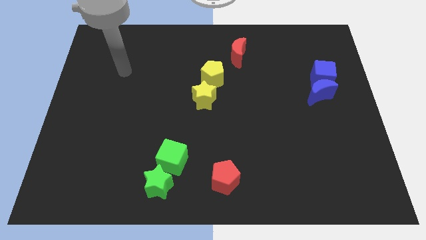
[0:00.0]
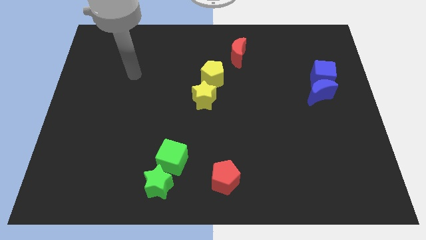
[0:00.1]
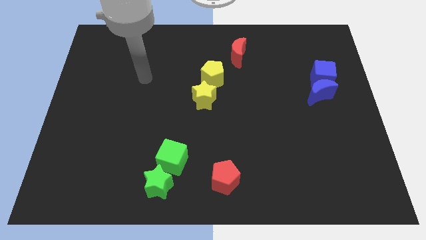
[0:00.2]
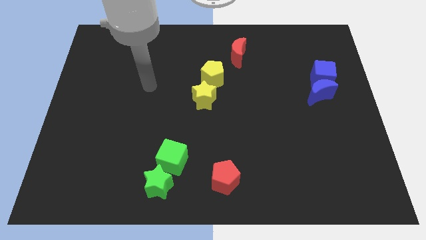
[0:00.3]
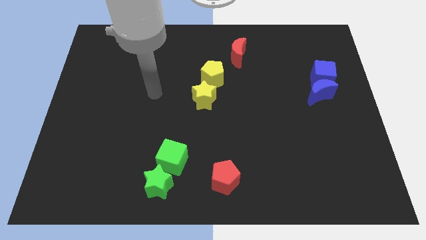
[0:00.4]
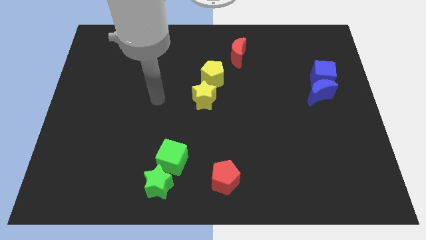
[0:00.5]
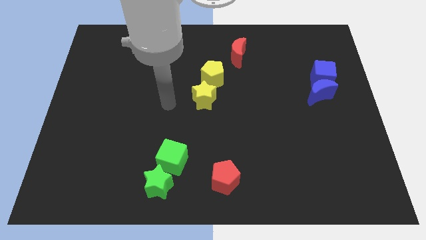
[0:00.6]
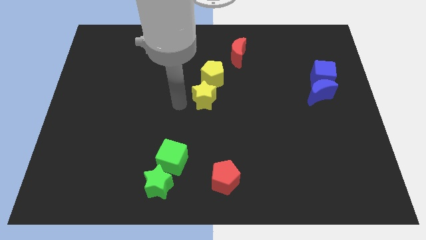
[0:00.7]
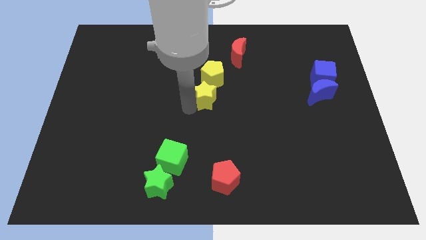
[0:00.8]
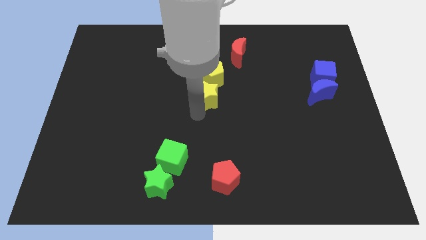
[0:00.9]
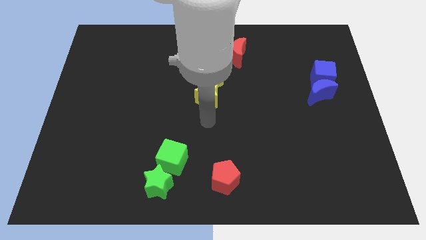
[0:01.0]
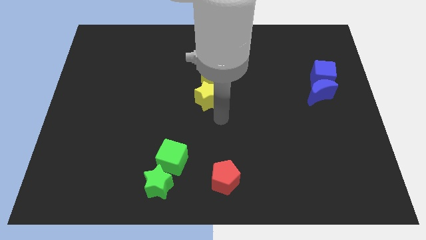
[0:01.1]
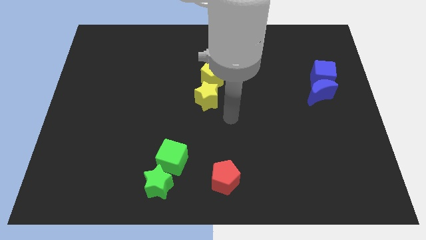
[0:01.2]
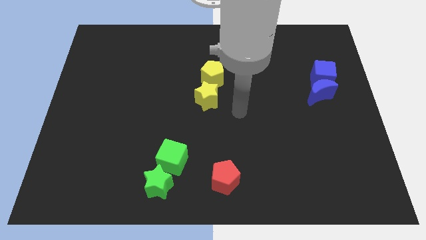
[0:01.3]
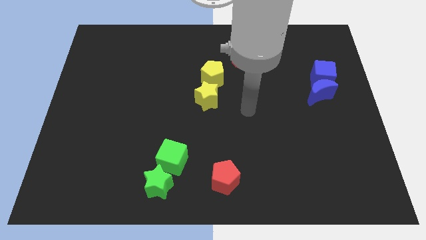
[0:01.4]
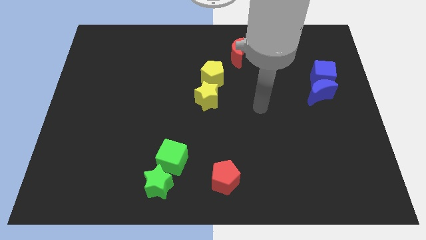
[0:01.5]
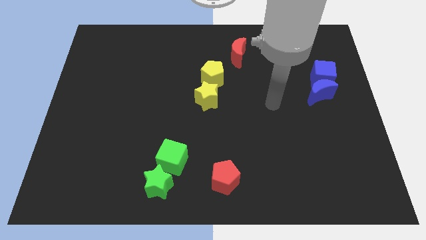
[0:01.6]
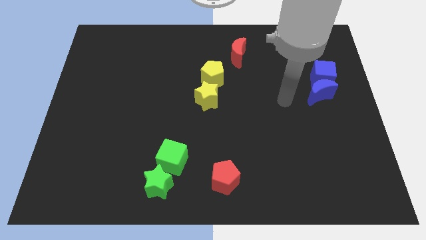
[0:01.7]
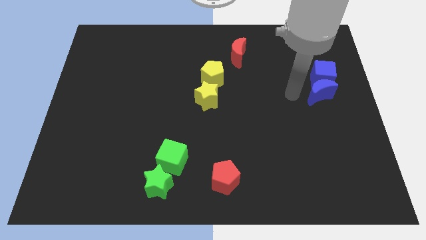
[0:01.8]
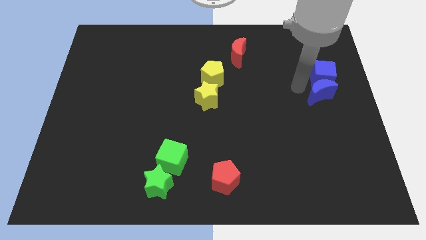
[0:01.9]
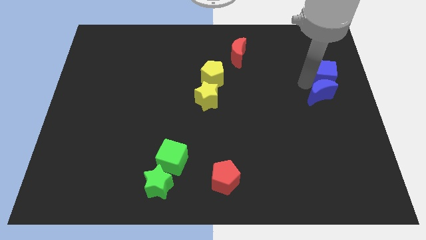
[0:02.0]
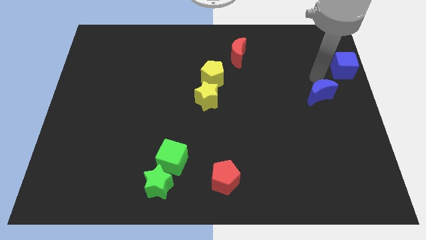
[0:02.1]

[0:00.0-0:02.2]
pull the blue moon apart from the blue cube

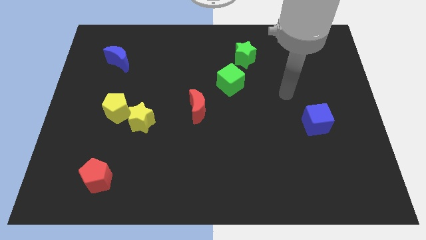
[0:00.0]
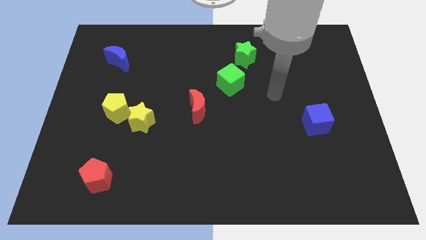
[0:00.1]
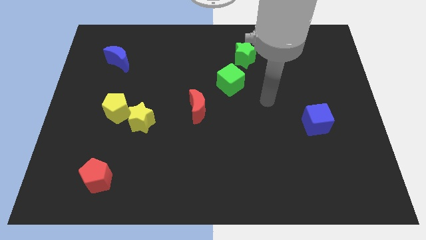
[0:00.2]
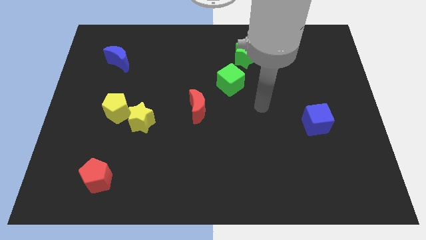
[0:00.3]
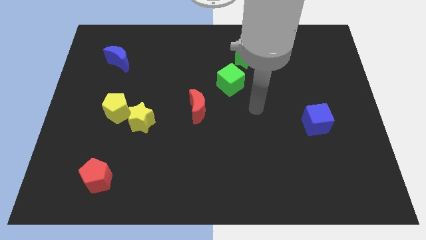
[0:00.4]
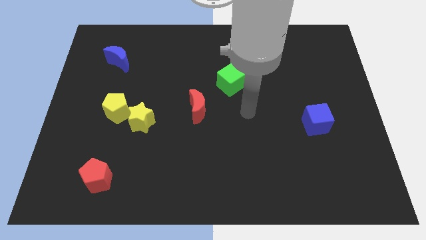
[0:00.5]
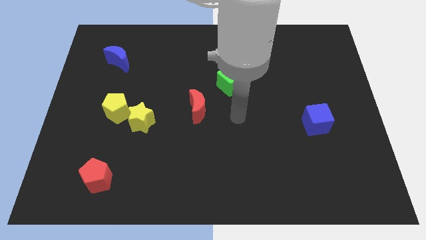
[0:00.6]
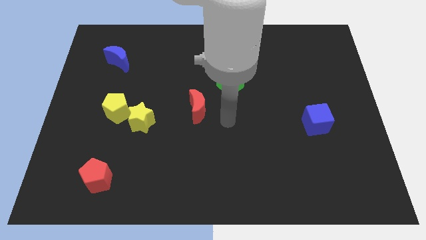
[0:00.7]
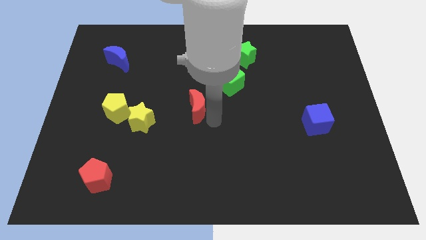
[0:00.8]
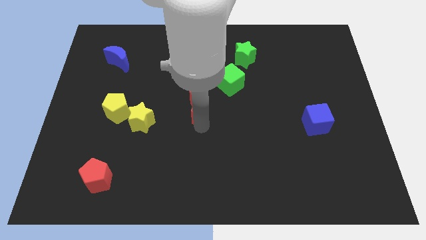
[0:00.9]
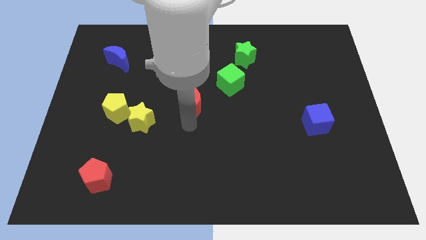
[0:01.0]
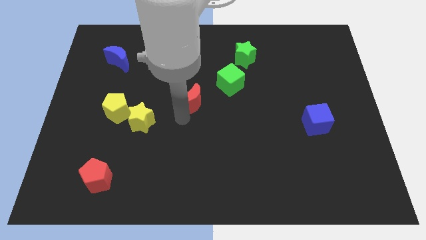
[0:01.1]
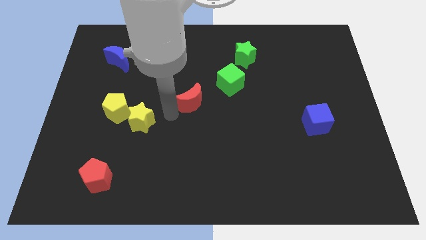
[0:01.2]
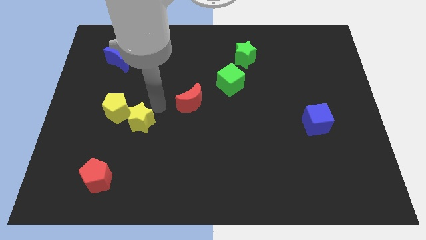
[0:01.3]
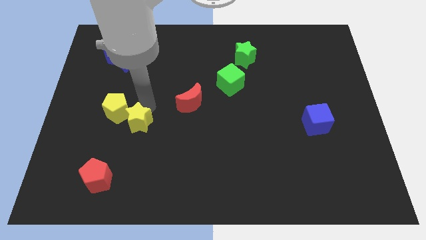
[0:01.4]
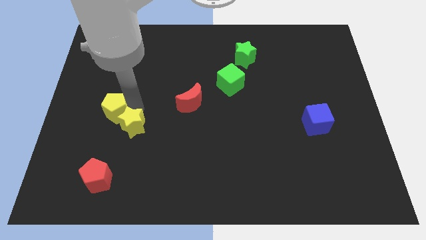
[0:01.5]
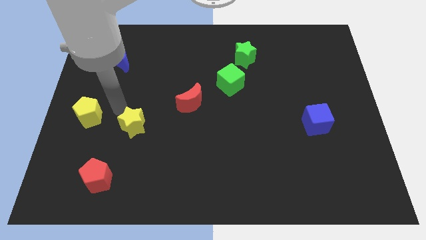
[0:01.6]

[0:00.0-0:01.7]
separate the yellow star from the yellow pentagon

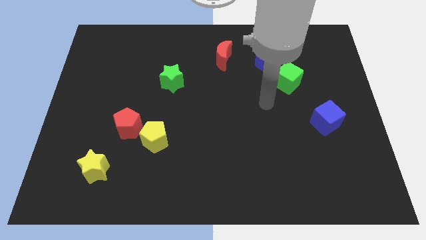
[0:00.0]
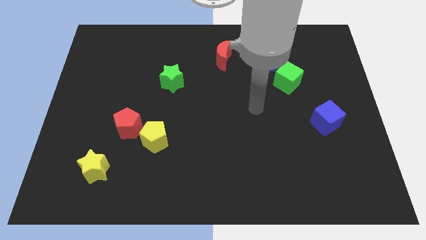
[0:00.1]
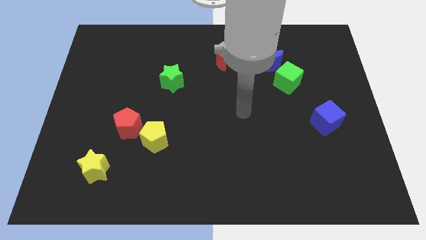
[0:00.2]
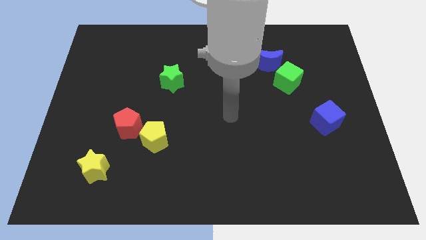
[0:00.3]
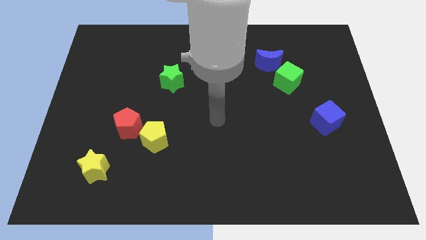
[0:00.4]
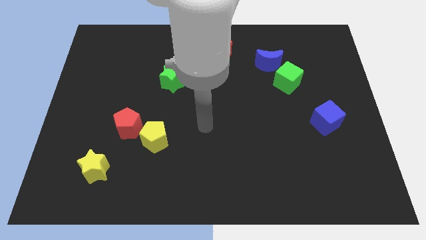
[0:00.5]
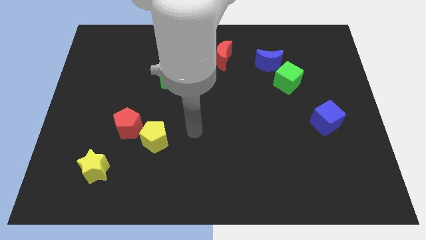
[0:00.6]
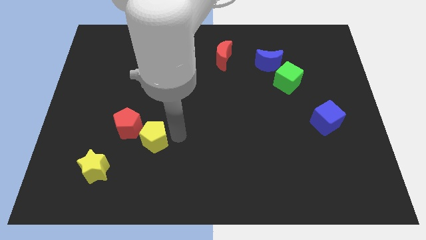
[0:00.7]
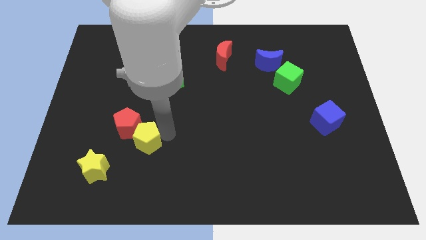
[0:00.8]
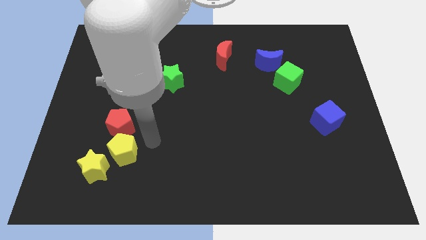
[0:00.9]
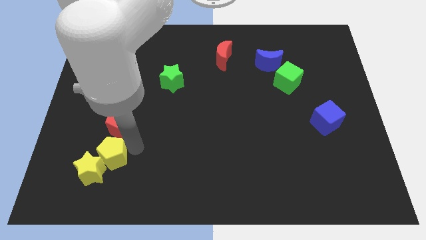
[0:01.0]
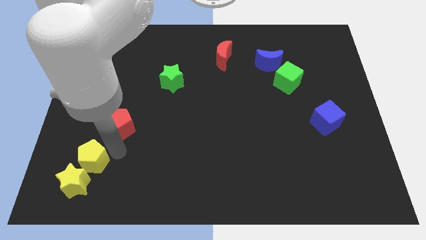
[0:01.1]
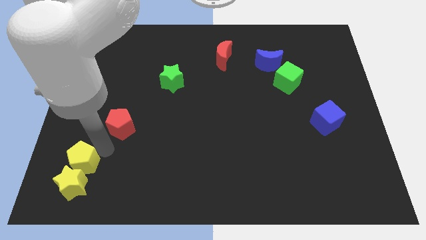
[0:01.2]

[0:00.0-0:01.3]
move the red pentagon away from the yellow pentagon

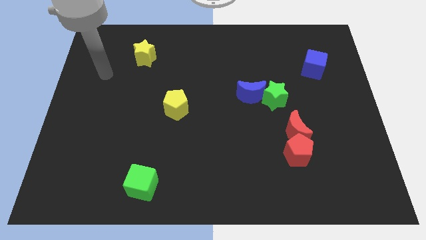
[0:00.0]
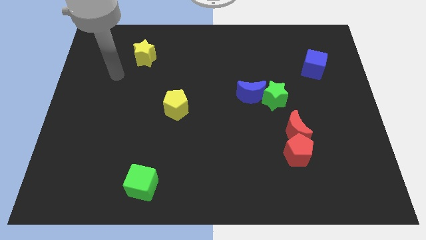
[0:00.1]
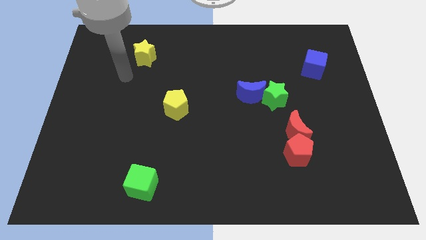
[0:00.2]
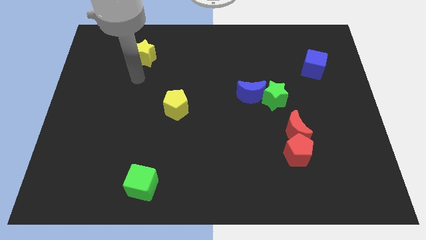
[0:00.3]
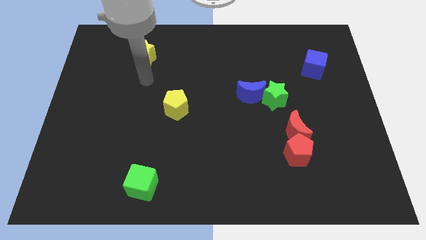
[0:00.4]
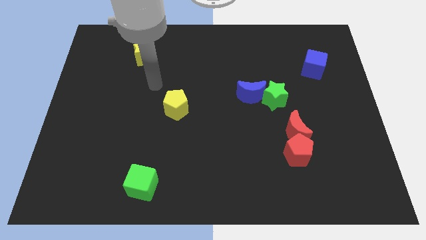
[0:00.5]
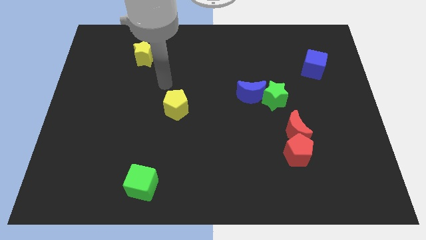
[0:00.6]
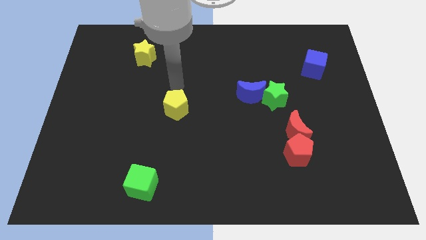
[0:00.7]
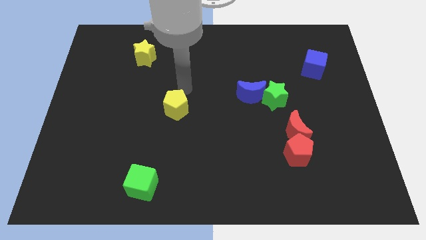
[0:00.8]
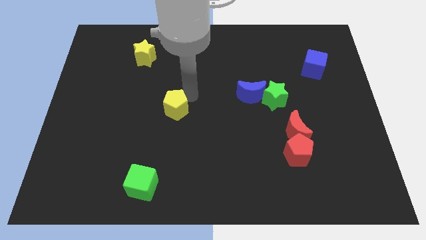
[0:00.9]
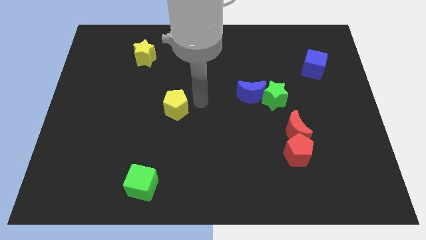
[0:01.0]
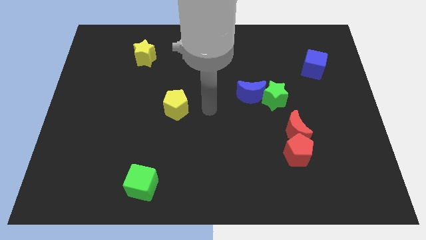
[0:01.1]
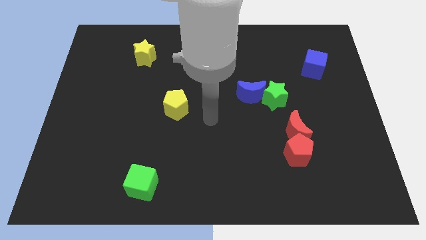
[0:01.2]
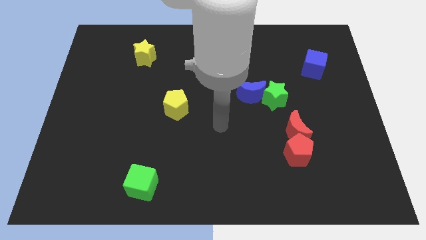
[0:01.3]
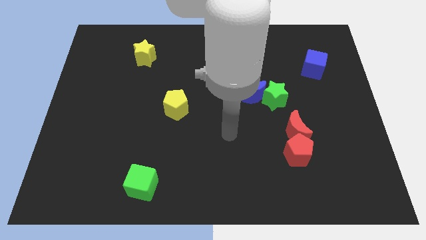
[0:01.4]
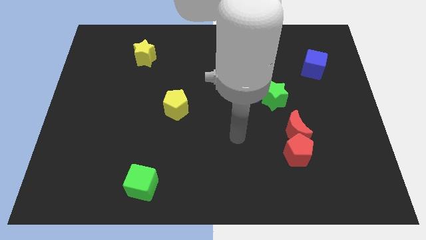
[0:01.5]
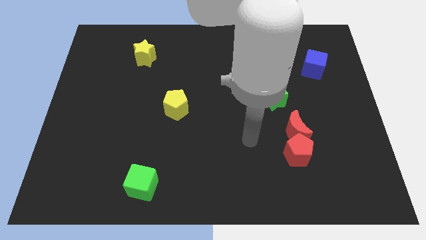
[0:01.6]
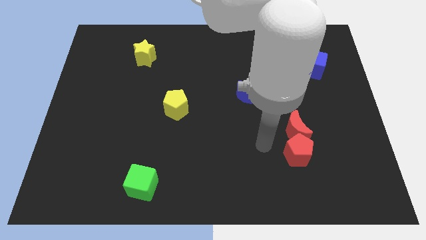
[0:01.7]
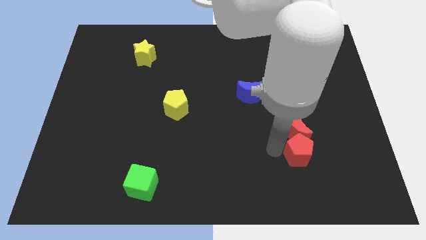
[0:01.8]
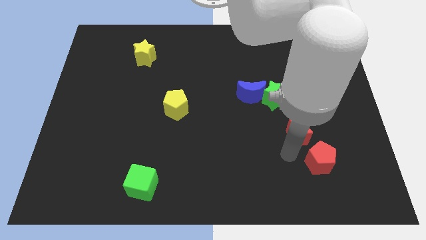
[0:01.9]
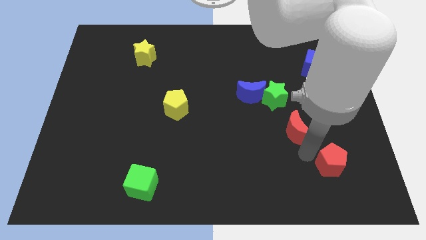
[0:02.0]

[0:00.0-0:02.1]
separate the red moon from the red pentagon

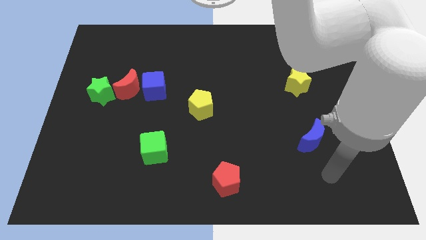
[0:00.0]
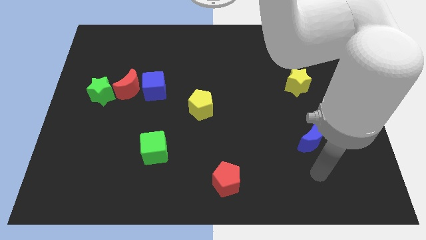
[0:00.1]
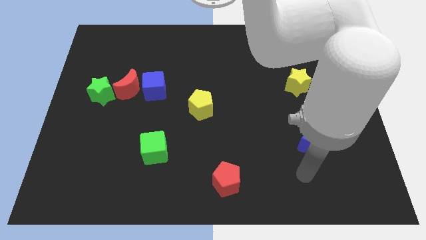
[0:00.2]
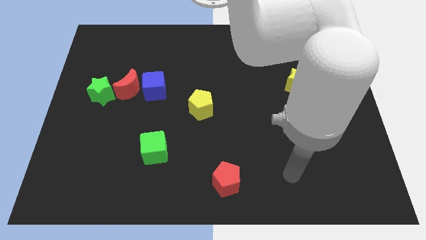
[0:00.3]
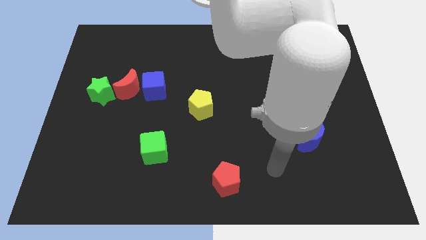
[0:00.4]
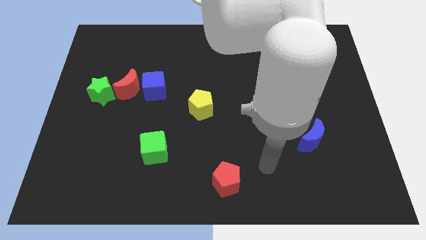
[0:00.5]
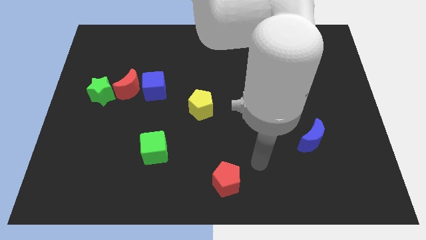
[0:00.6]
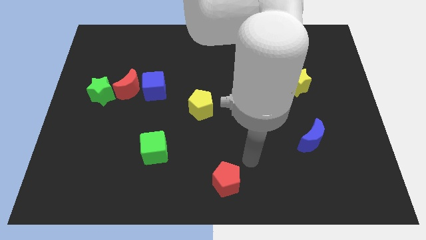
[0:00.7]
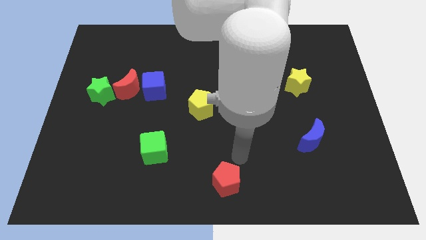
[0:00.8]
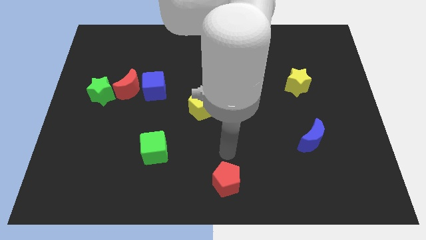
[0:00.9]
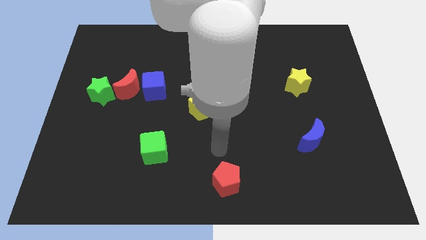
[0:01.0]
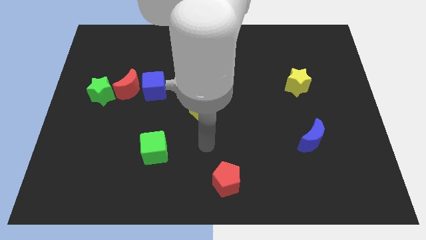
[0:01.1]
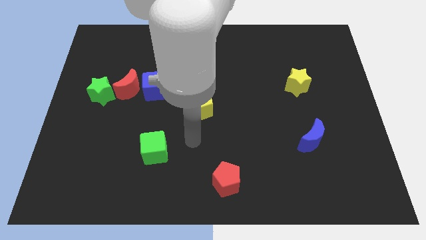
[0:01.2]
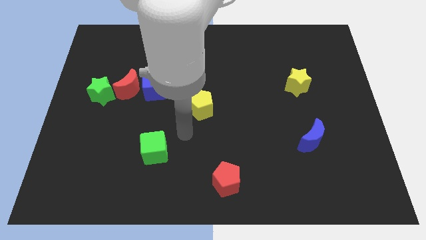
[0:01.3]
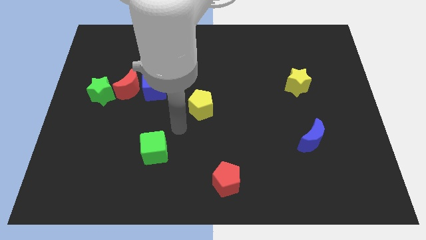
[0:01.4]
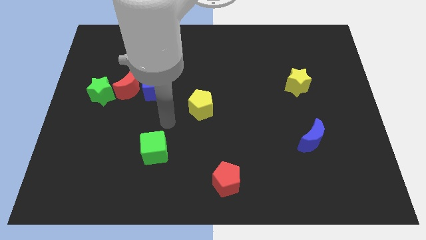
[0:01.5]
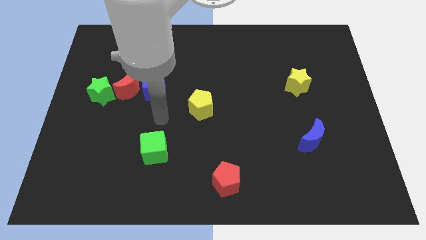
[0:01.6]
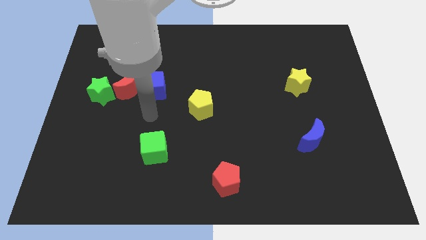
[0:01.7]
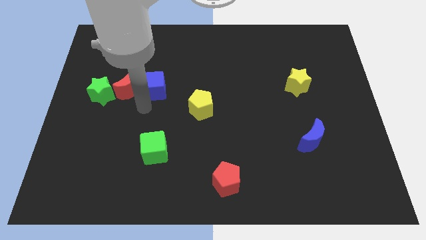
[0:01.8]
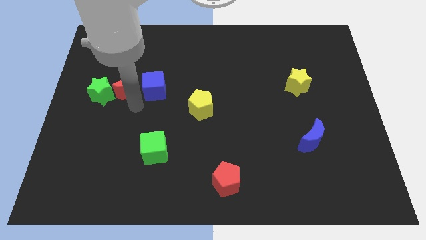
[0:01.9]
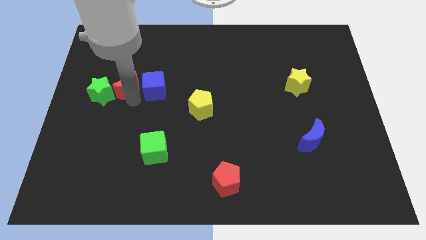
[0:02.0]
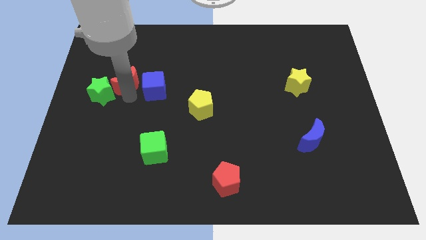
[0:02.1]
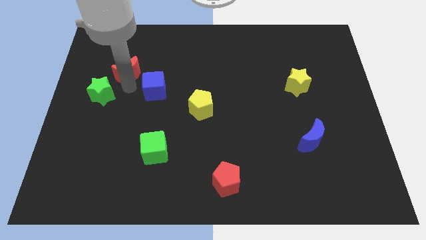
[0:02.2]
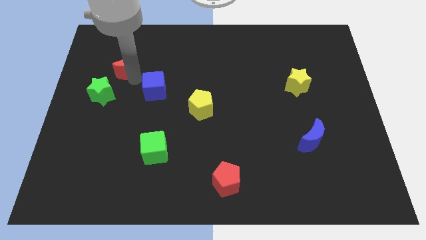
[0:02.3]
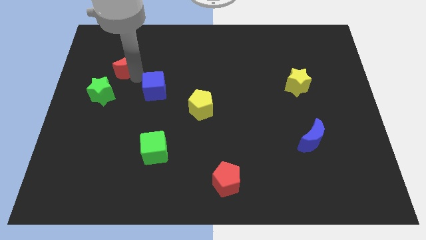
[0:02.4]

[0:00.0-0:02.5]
move the blue cube away from the red moon
